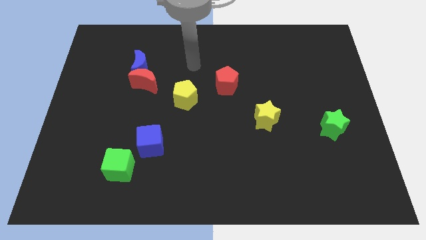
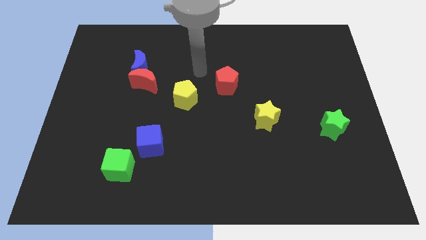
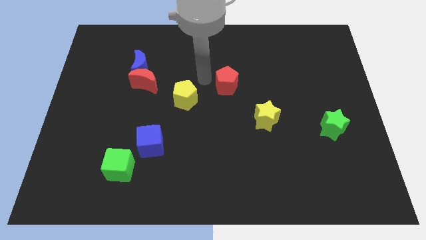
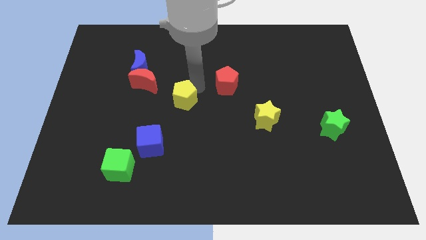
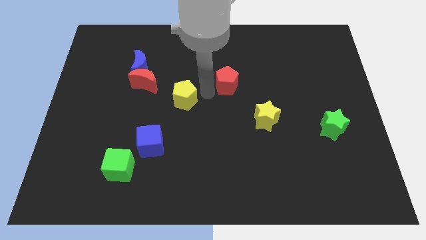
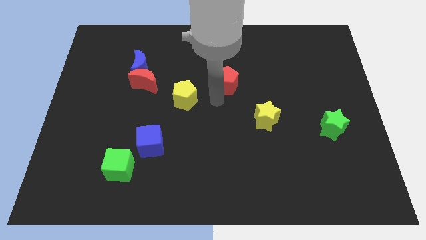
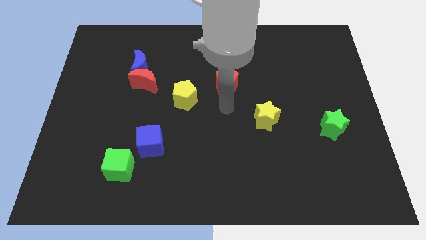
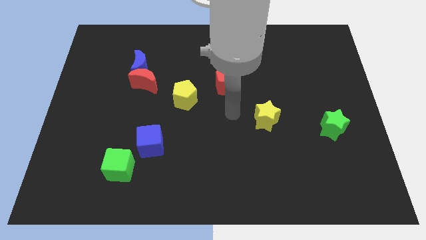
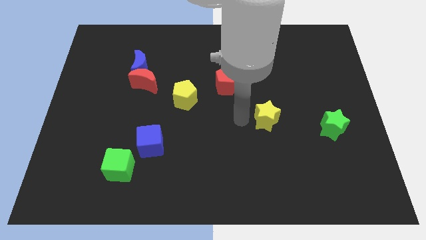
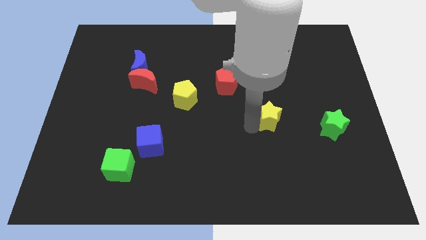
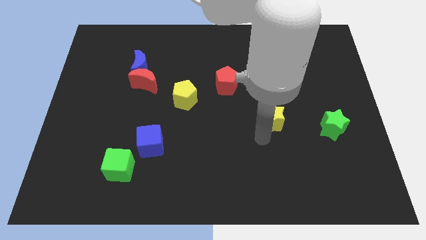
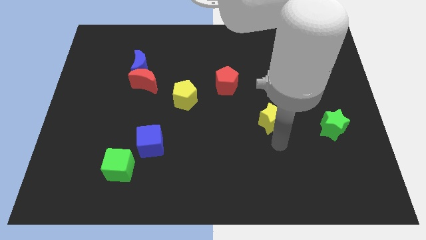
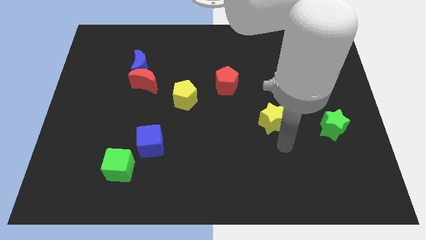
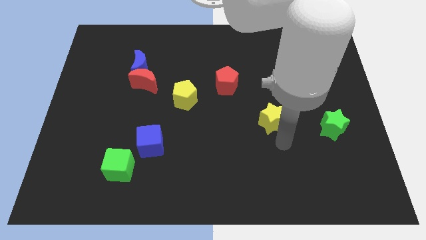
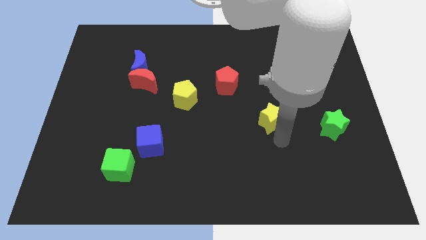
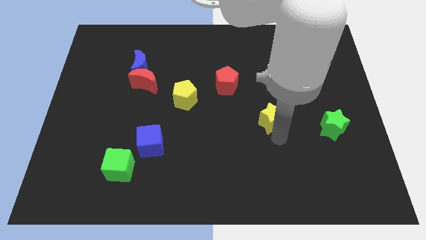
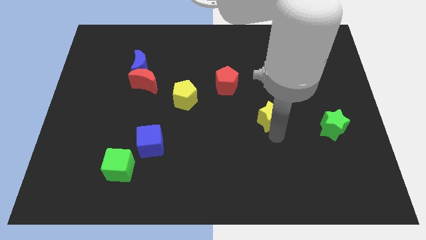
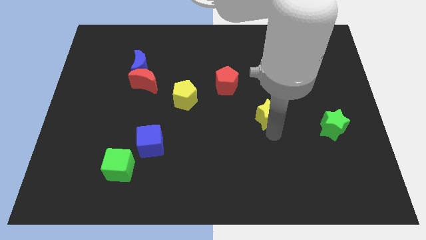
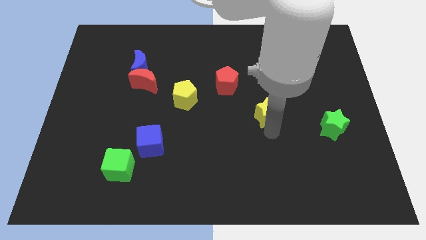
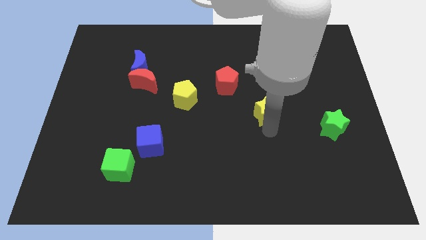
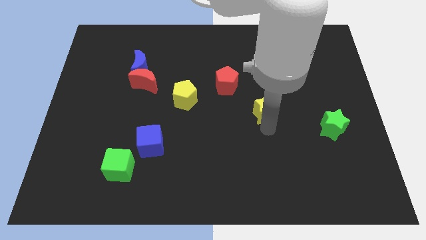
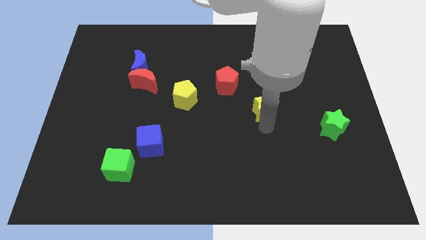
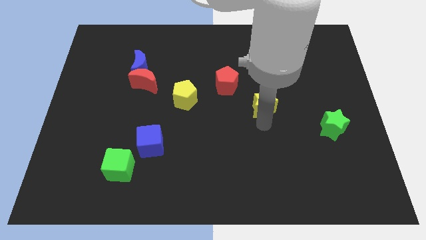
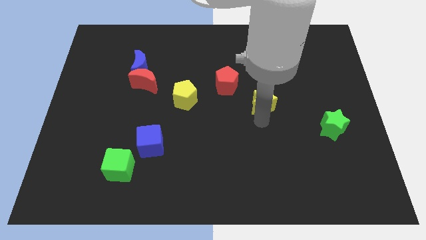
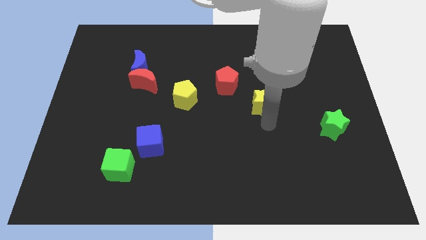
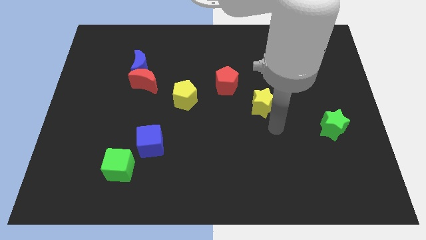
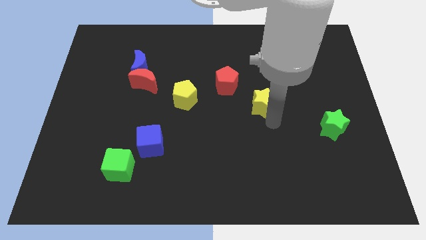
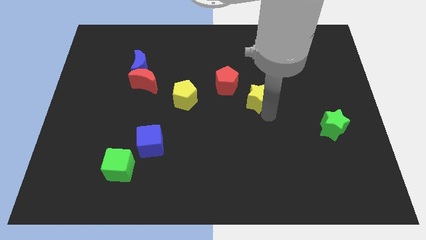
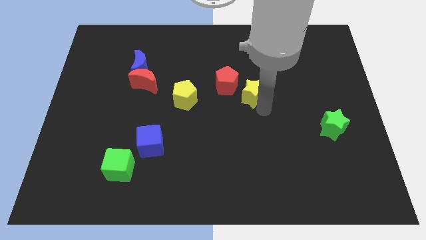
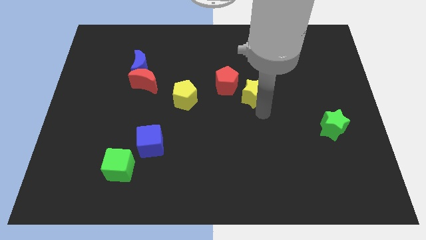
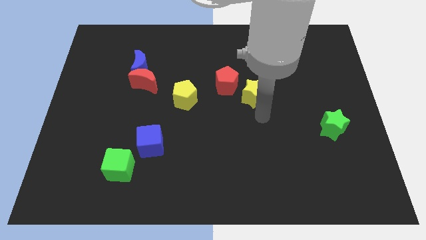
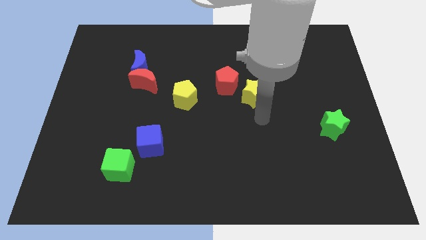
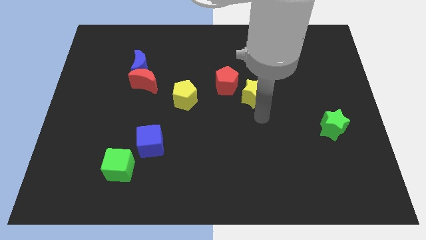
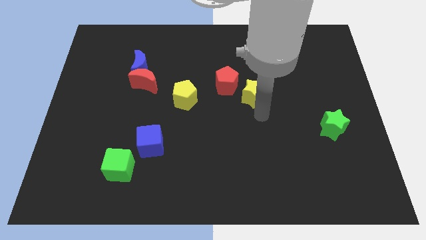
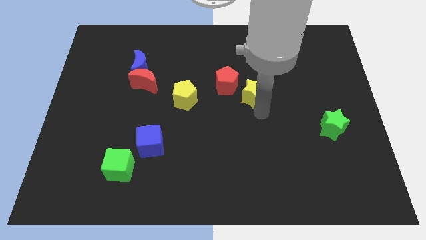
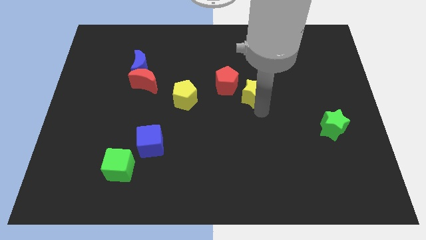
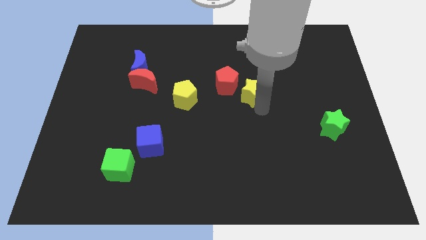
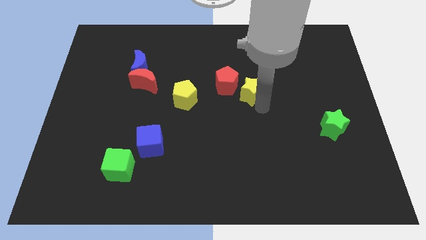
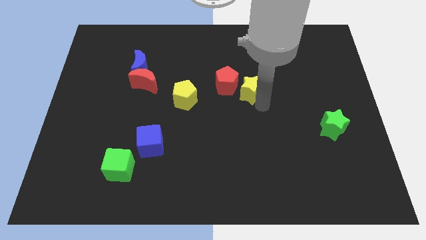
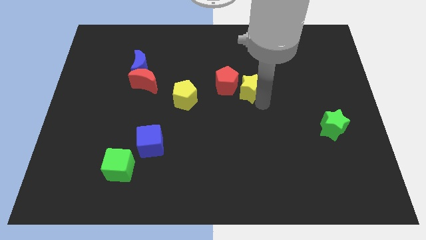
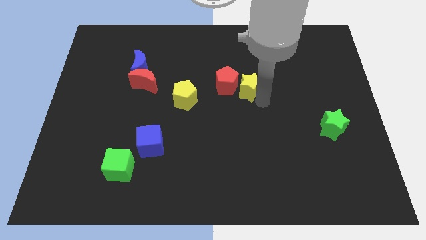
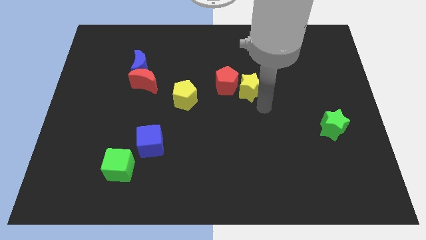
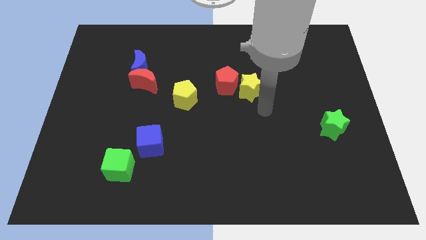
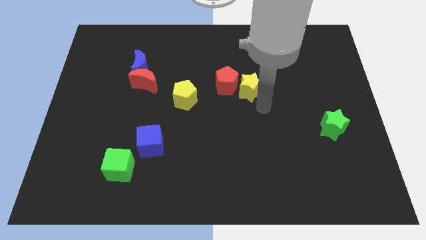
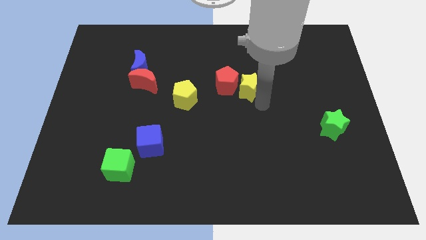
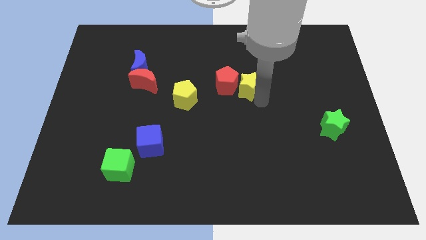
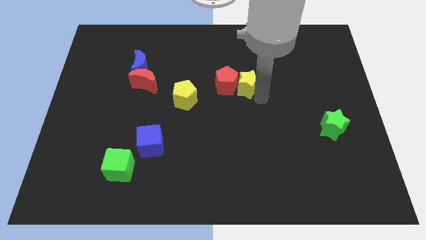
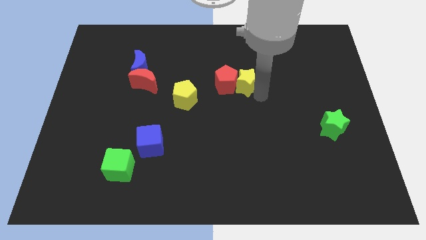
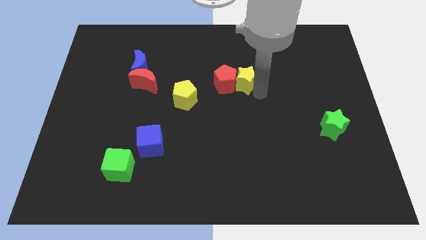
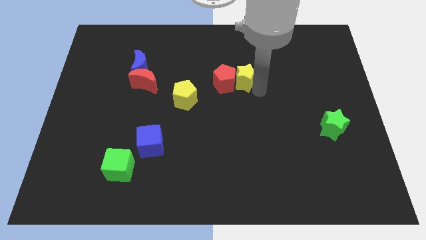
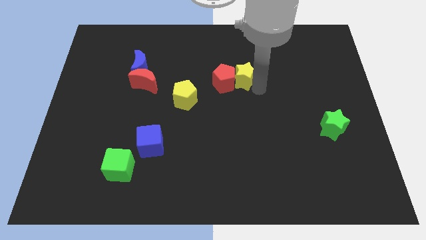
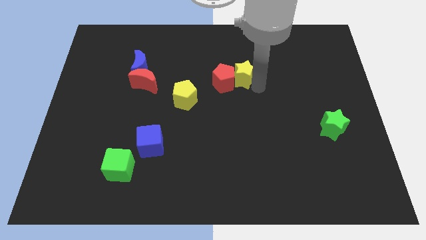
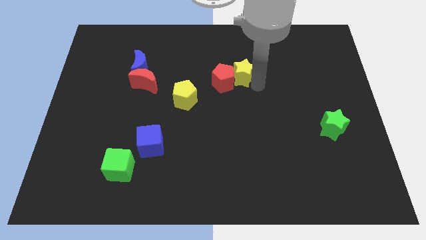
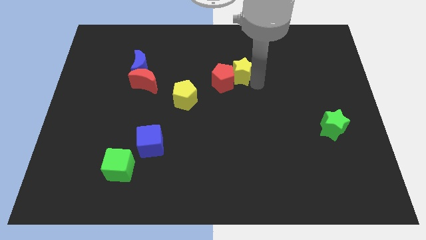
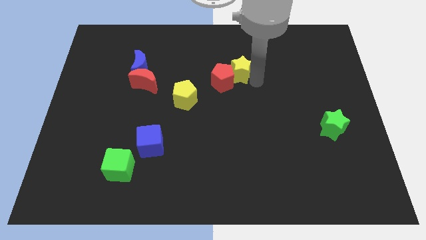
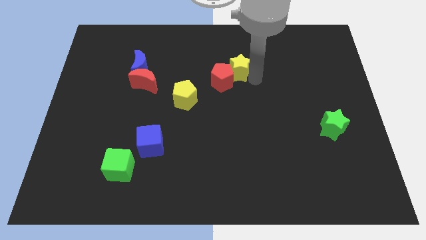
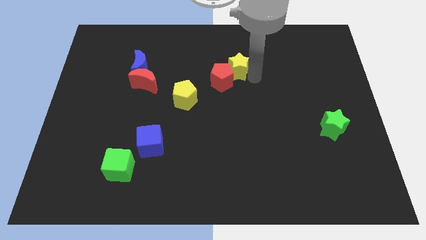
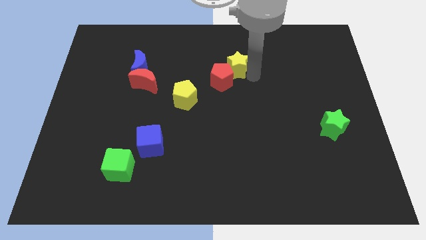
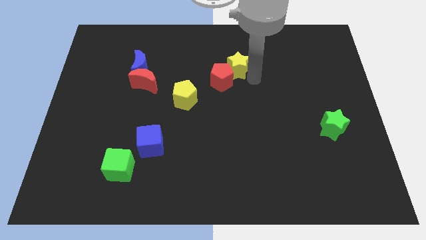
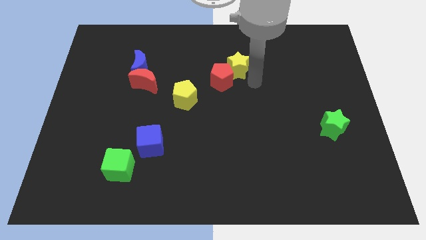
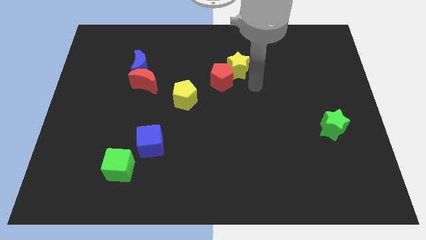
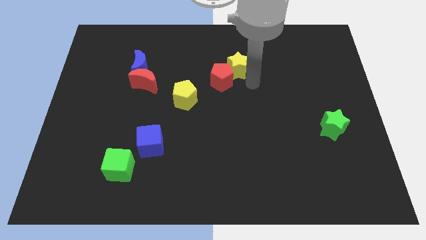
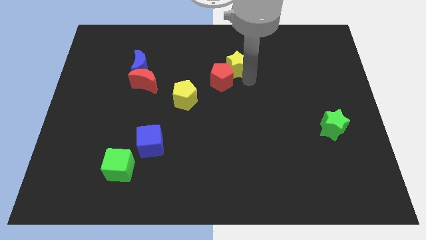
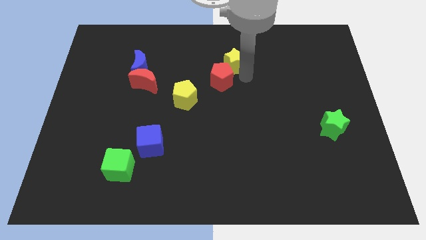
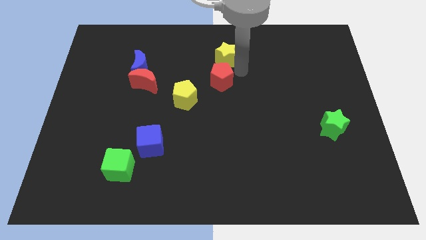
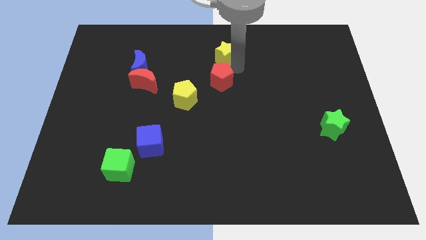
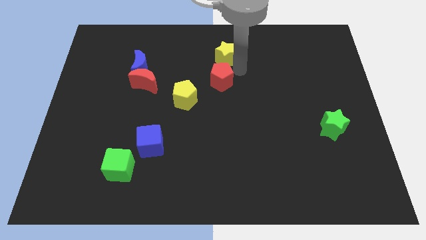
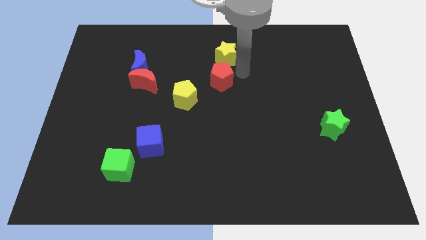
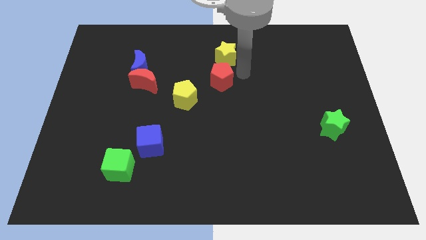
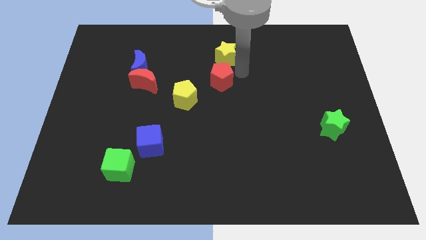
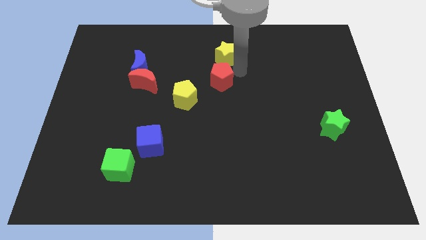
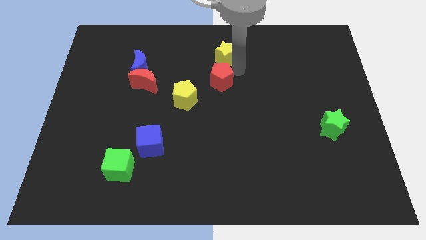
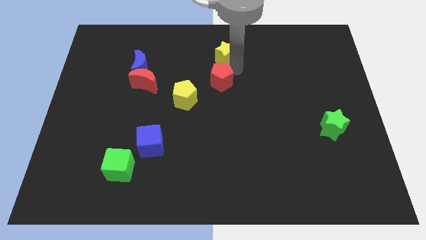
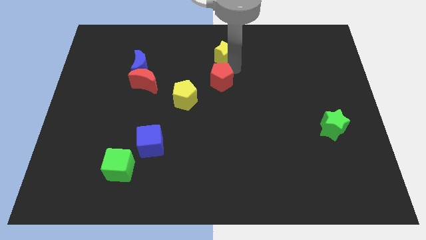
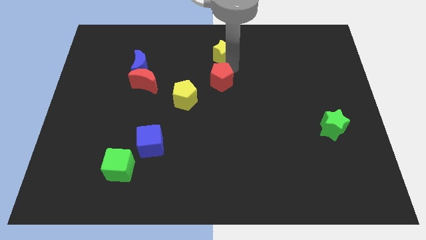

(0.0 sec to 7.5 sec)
slide the yellow star to the top side

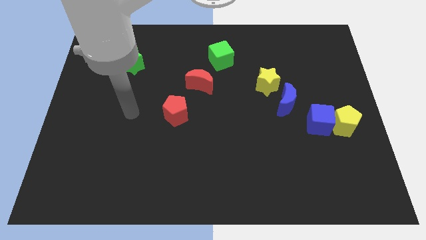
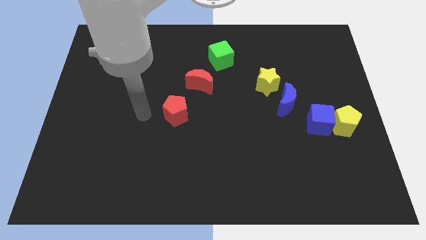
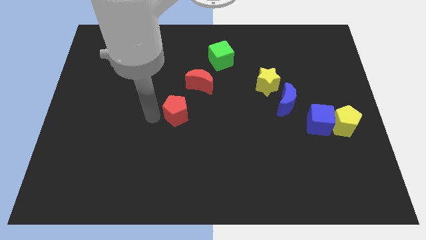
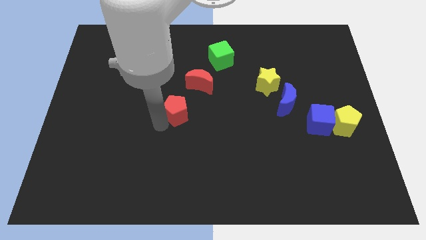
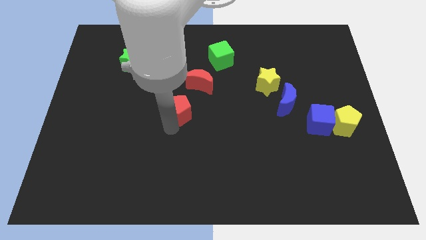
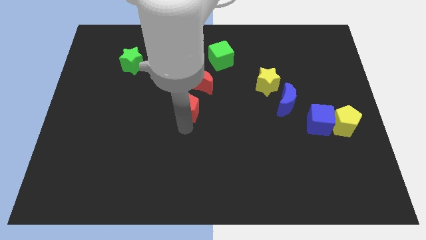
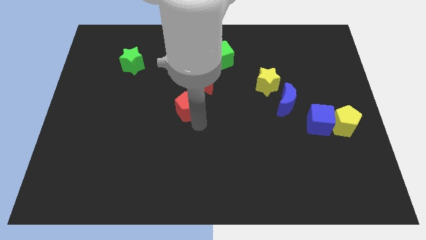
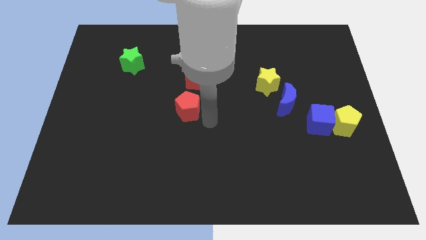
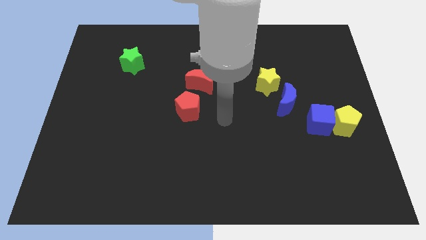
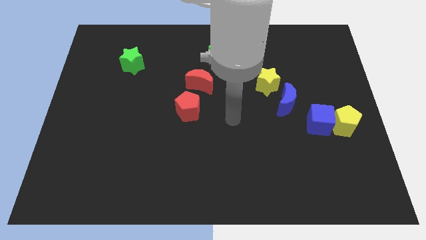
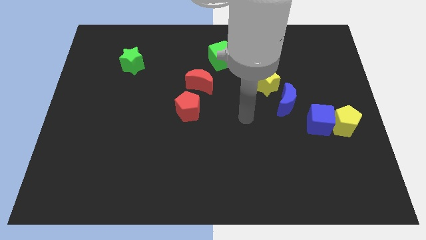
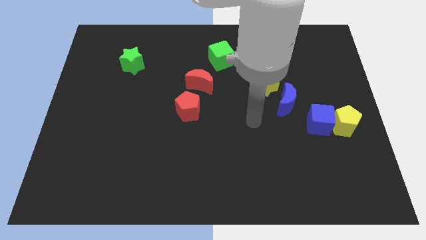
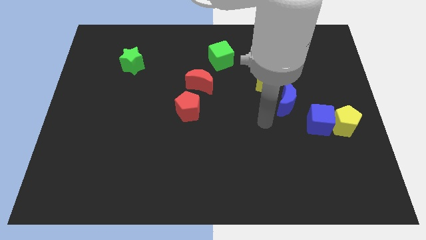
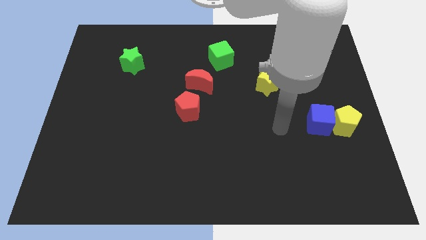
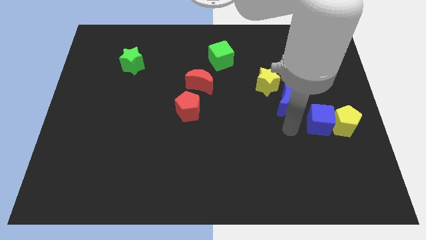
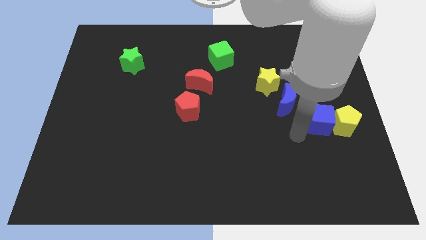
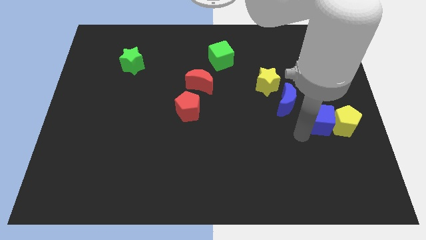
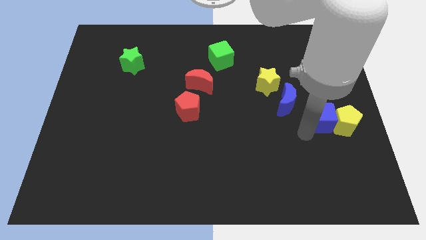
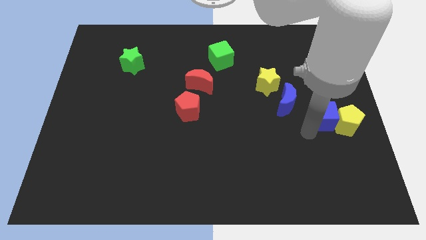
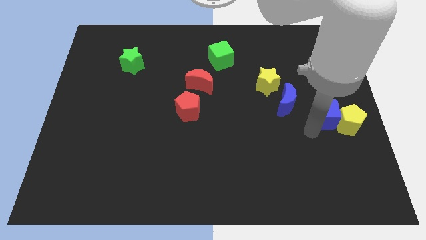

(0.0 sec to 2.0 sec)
slide the blue cube to the center right
